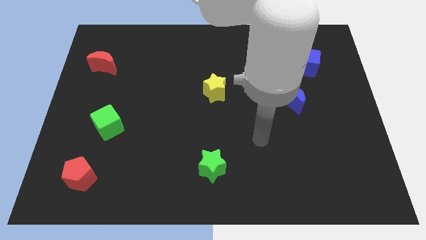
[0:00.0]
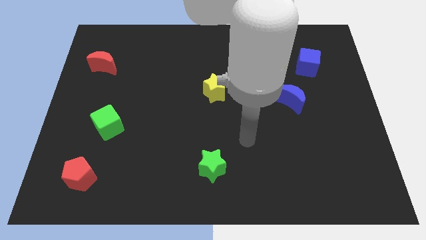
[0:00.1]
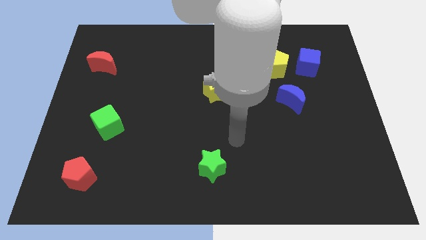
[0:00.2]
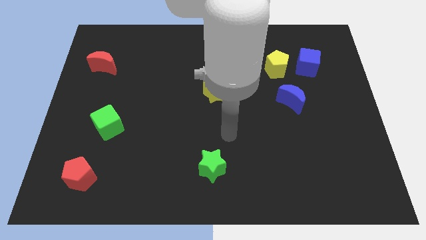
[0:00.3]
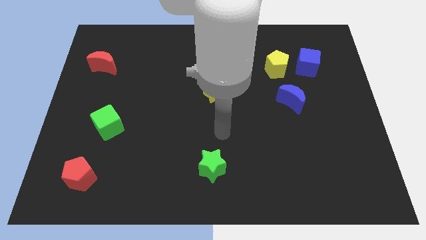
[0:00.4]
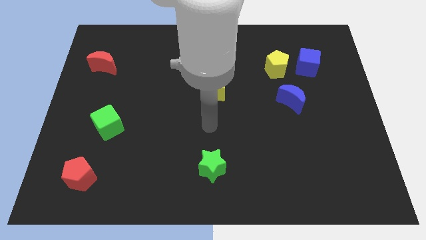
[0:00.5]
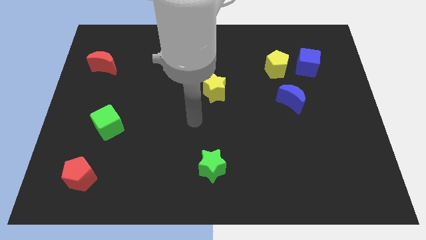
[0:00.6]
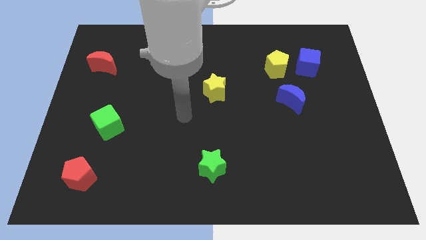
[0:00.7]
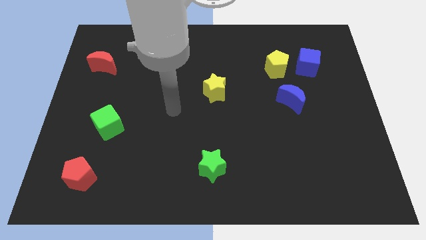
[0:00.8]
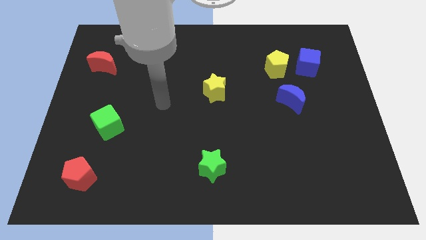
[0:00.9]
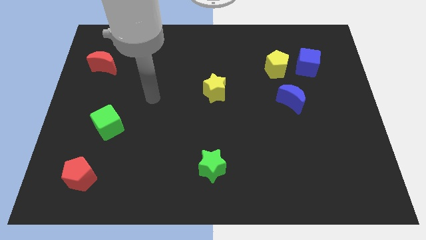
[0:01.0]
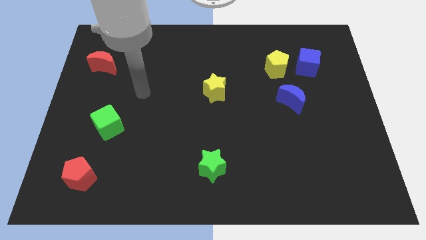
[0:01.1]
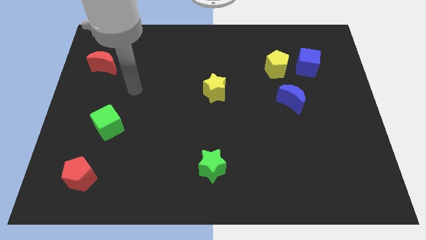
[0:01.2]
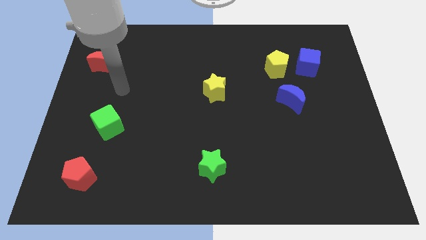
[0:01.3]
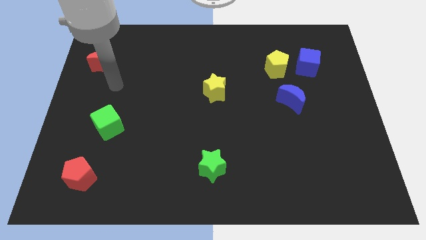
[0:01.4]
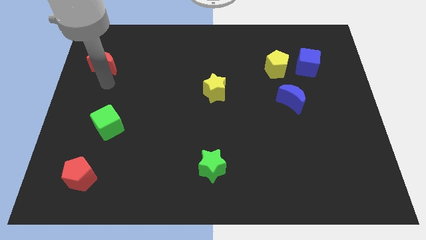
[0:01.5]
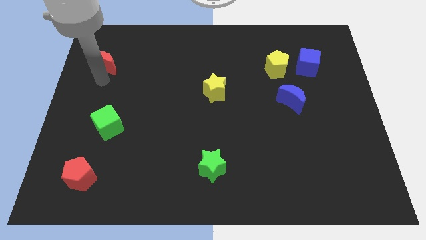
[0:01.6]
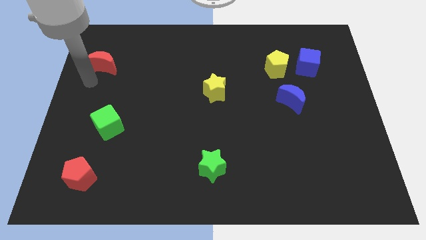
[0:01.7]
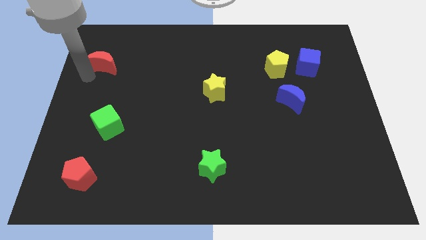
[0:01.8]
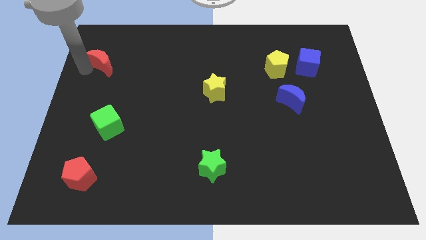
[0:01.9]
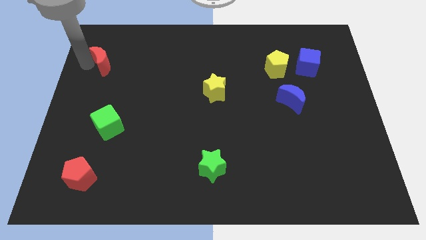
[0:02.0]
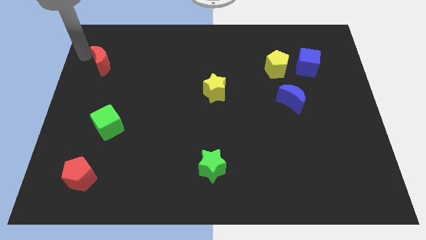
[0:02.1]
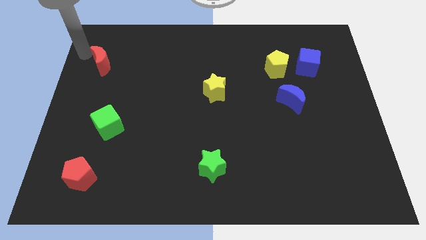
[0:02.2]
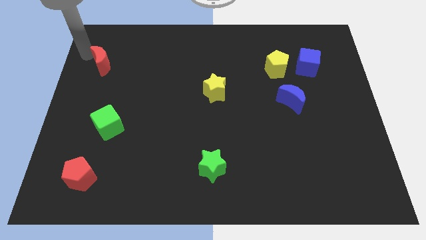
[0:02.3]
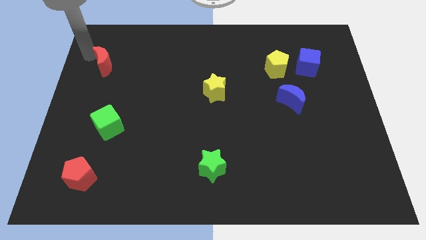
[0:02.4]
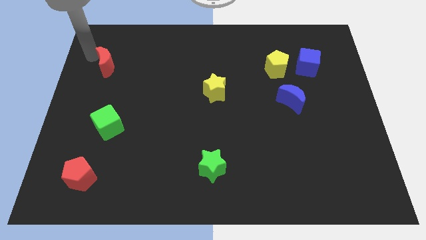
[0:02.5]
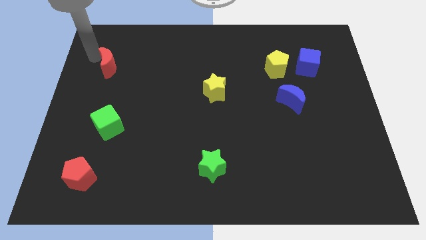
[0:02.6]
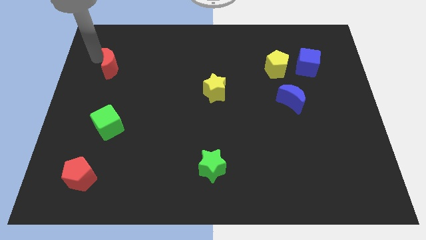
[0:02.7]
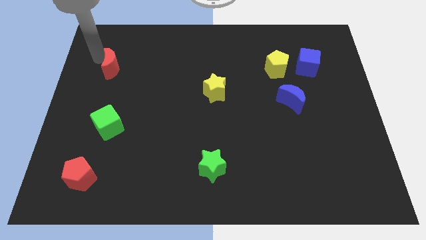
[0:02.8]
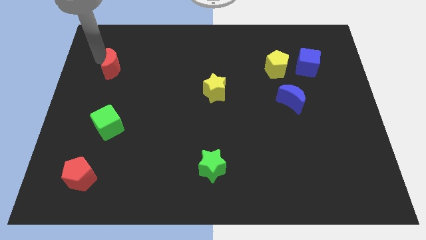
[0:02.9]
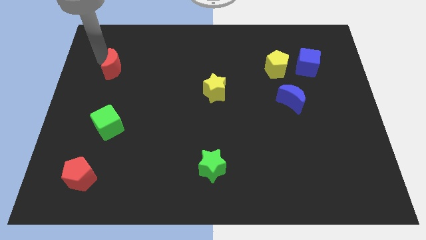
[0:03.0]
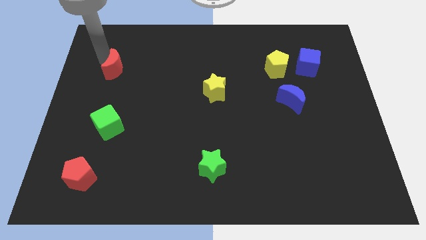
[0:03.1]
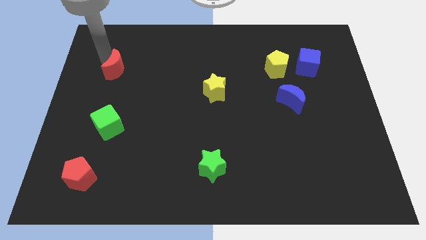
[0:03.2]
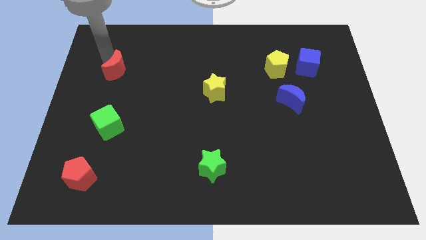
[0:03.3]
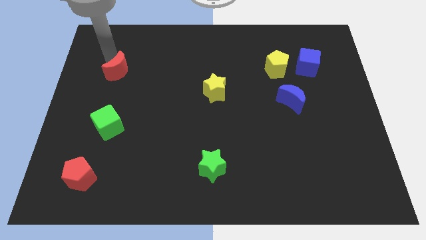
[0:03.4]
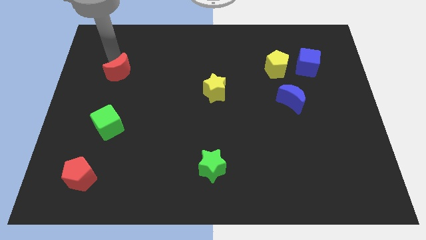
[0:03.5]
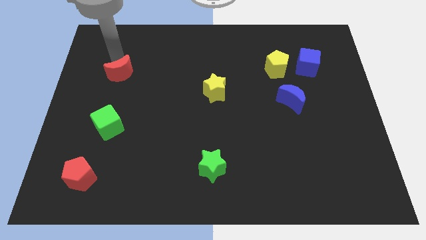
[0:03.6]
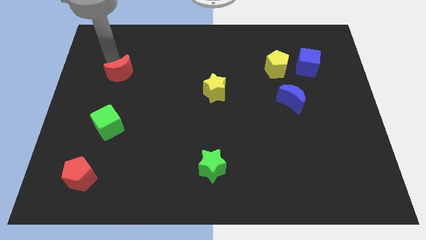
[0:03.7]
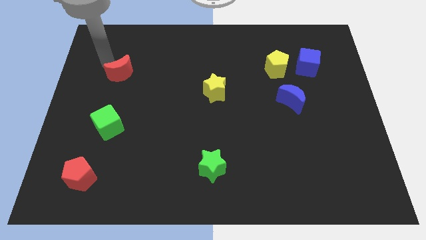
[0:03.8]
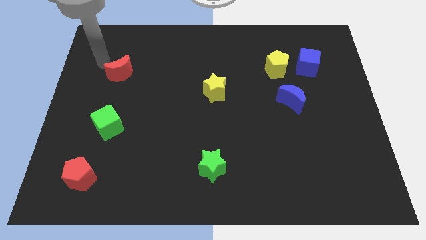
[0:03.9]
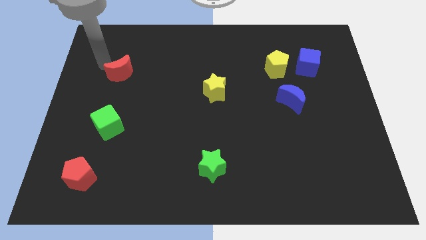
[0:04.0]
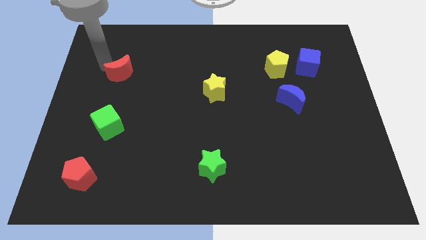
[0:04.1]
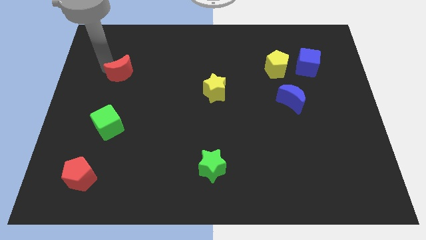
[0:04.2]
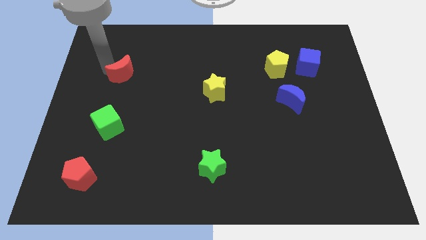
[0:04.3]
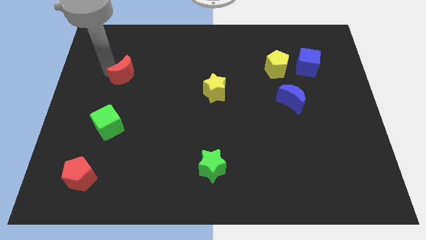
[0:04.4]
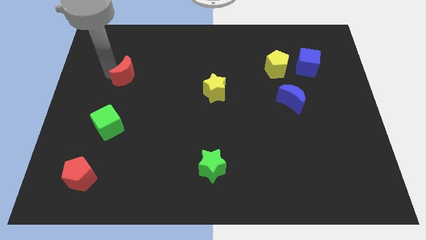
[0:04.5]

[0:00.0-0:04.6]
slightly move the red moon downwards and to the right

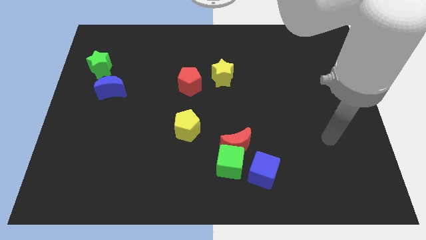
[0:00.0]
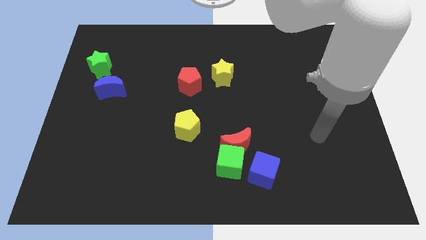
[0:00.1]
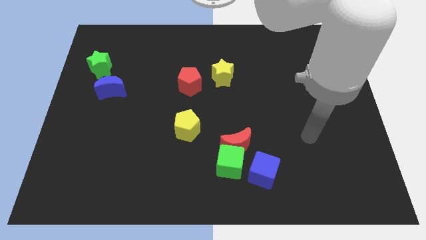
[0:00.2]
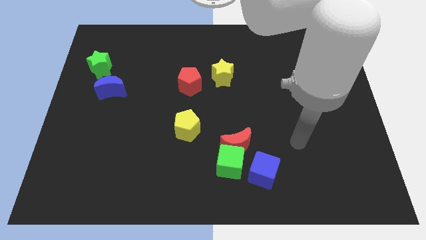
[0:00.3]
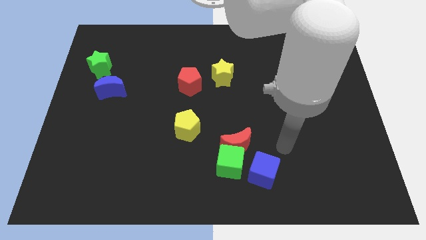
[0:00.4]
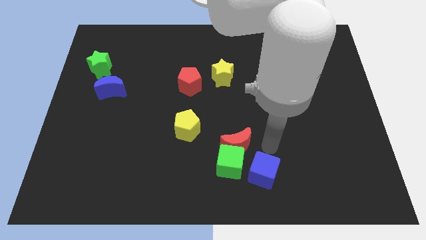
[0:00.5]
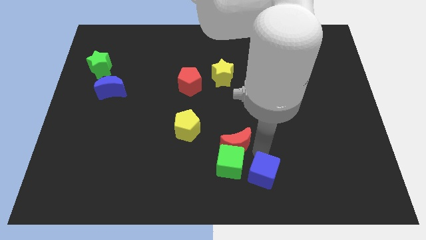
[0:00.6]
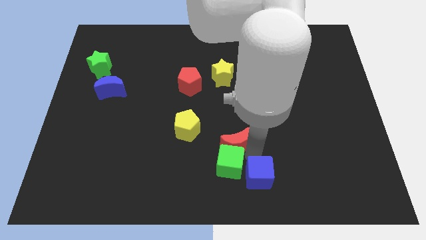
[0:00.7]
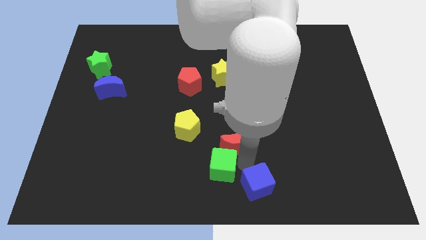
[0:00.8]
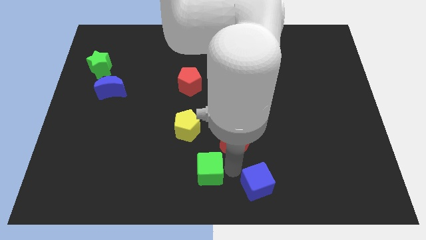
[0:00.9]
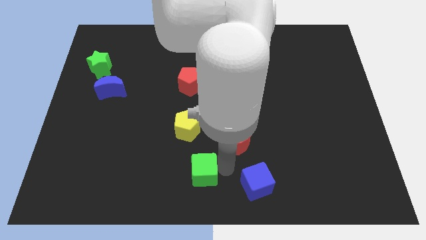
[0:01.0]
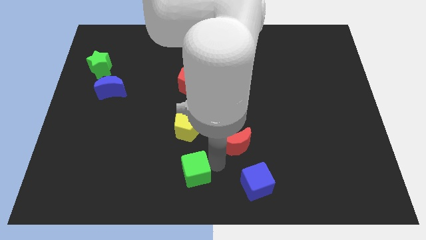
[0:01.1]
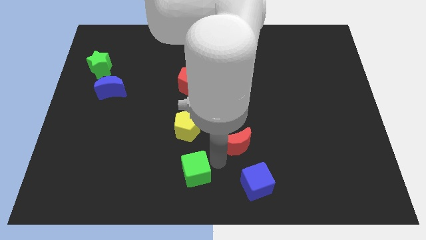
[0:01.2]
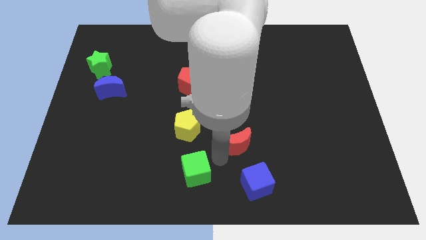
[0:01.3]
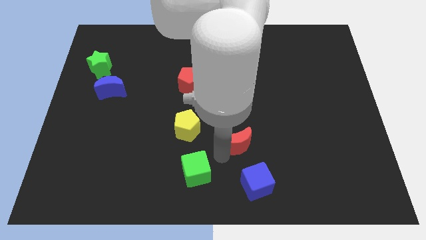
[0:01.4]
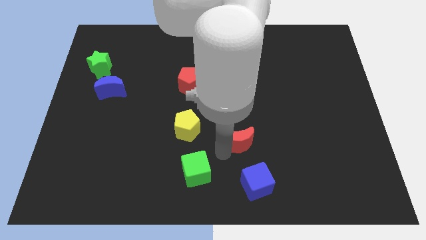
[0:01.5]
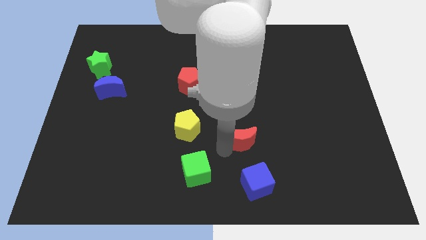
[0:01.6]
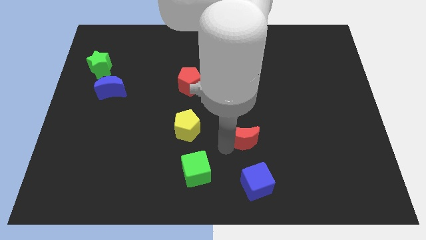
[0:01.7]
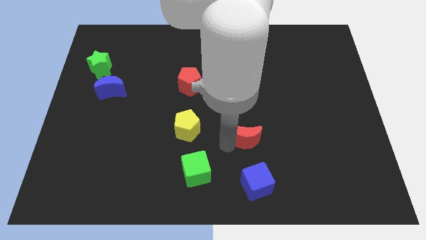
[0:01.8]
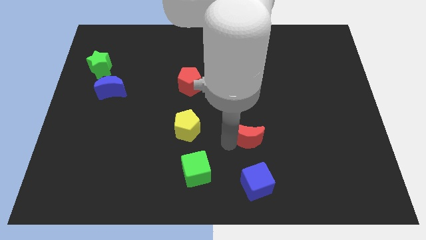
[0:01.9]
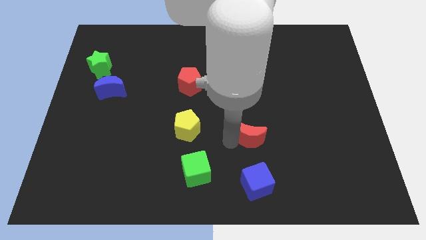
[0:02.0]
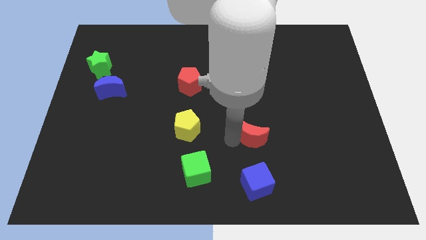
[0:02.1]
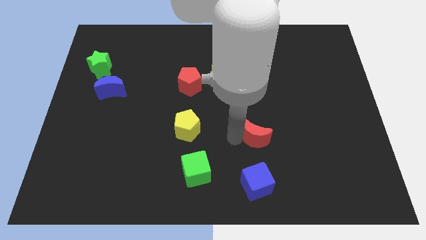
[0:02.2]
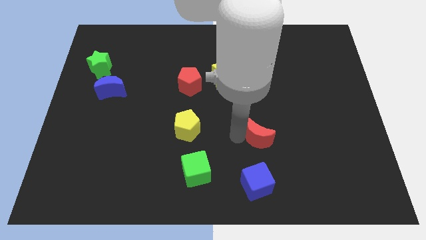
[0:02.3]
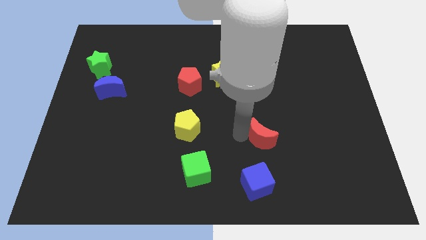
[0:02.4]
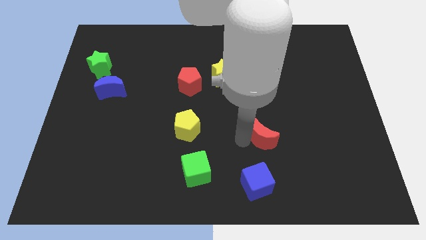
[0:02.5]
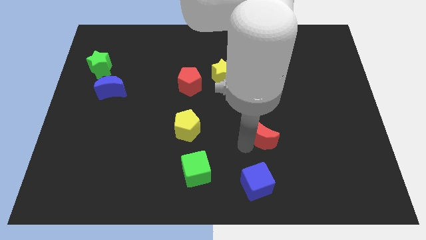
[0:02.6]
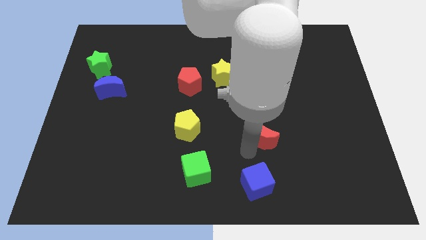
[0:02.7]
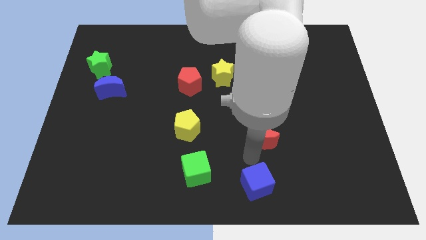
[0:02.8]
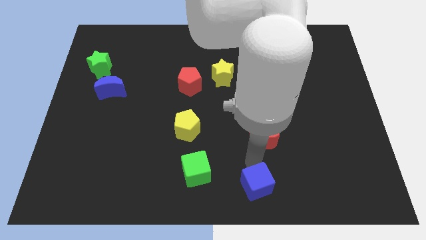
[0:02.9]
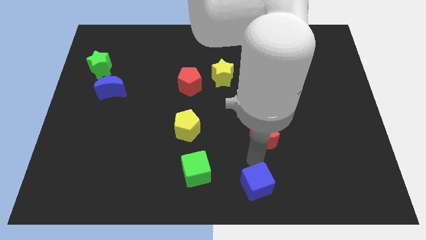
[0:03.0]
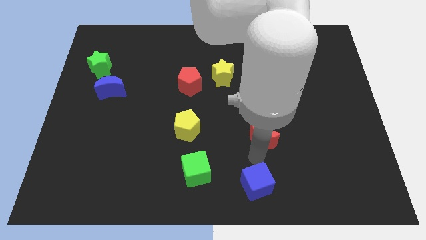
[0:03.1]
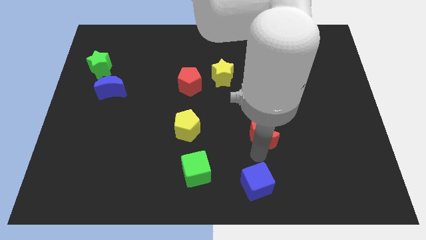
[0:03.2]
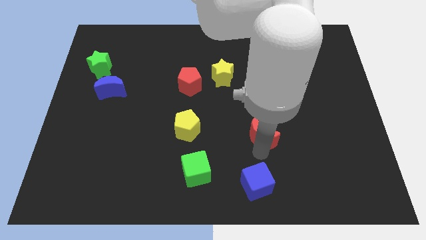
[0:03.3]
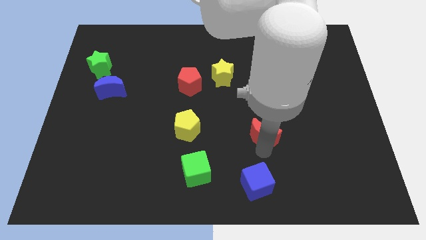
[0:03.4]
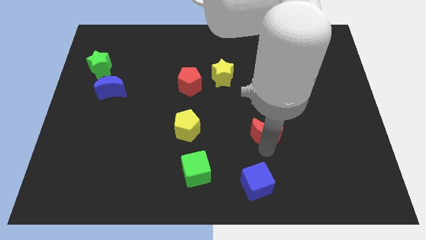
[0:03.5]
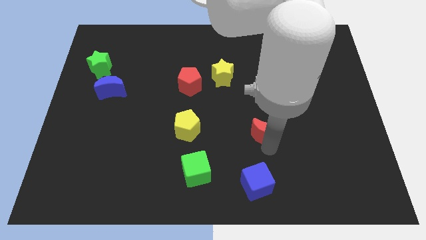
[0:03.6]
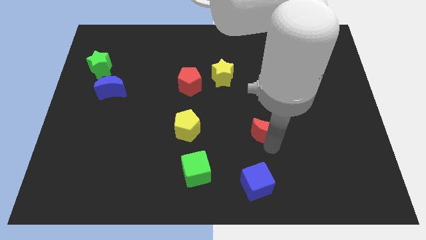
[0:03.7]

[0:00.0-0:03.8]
slightly push the red moon diagonally up and right
